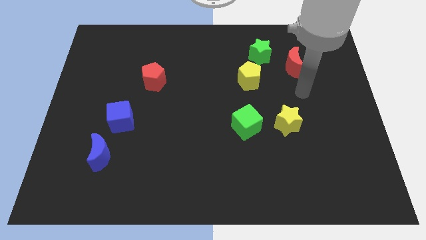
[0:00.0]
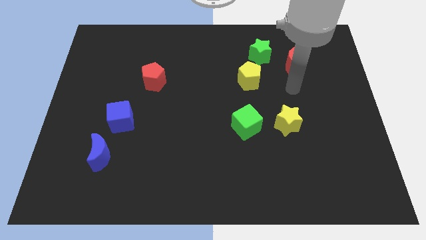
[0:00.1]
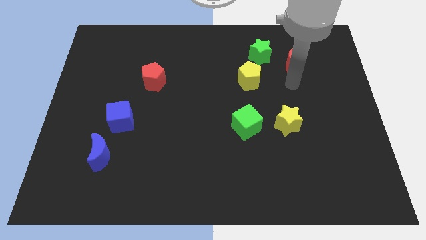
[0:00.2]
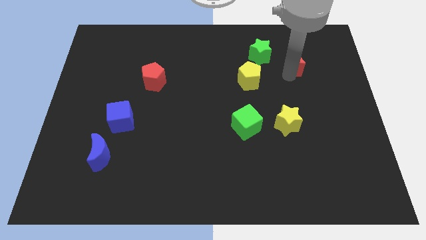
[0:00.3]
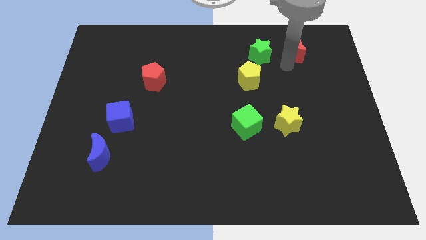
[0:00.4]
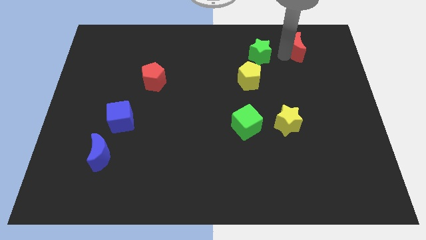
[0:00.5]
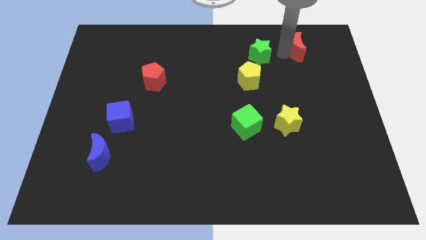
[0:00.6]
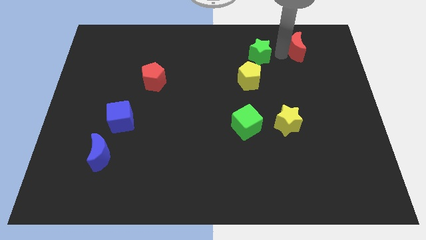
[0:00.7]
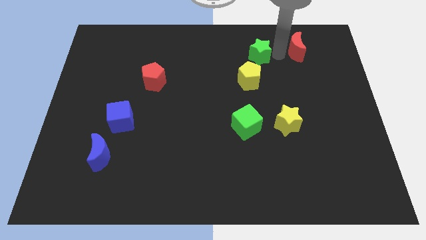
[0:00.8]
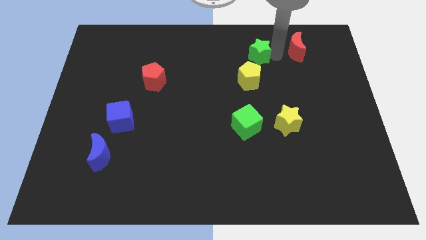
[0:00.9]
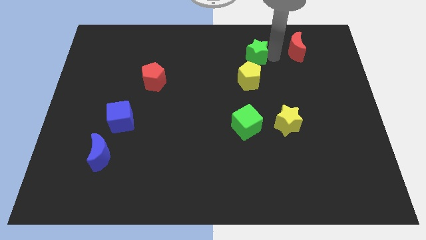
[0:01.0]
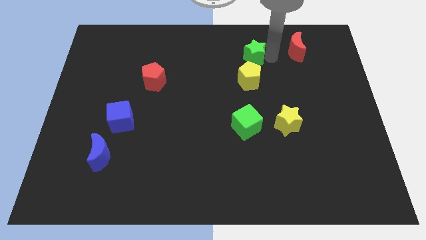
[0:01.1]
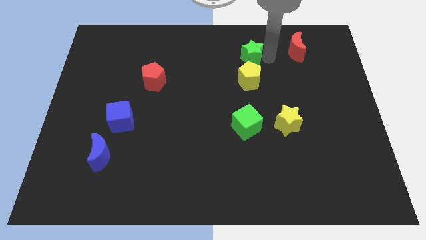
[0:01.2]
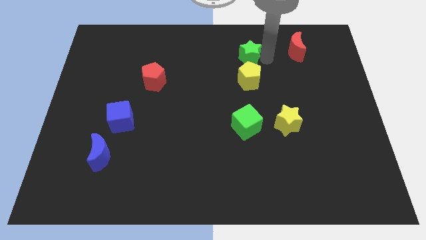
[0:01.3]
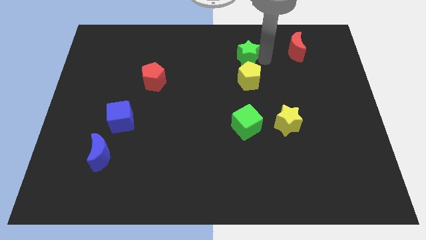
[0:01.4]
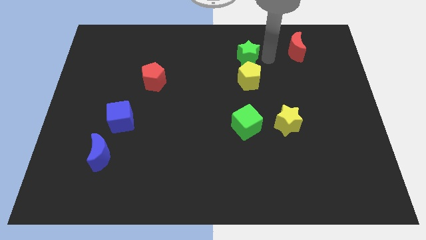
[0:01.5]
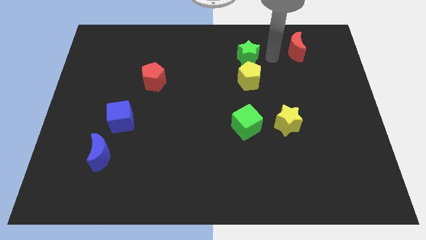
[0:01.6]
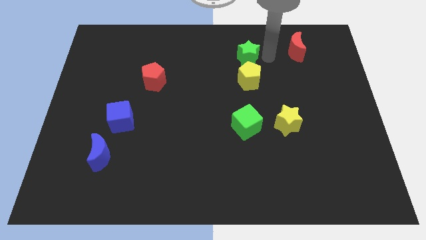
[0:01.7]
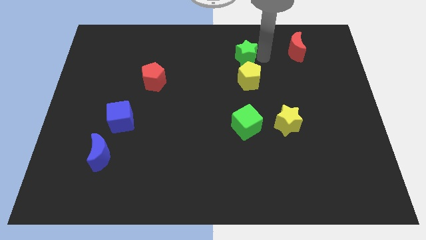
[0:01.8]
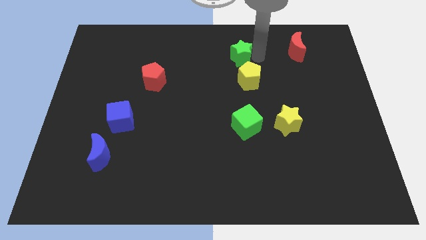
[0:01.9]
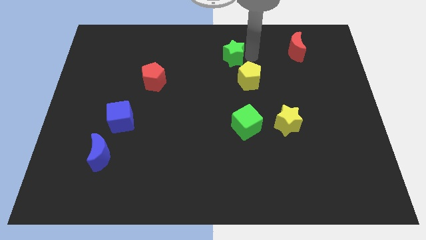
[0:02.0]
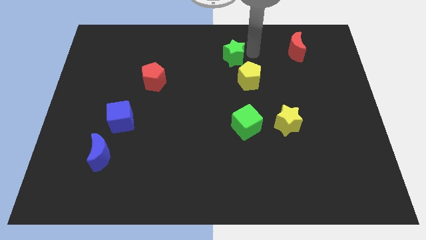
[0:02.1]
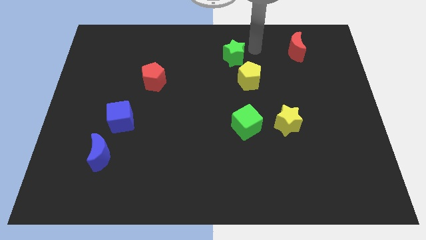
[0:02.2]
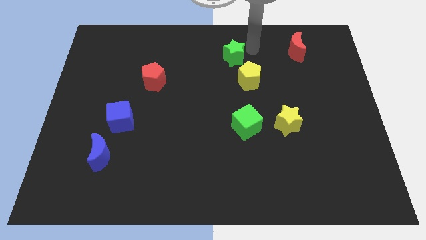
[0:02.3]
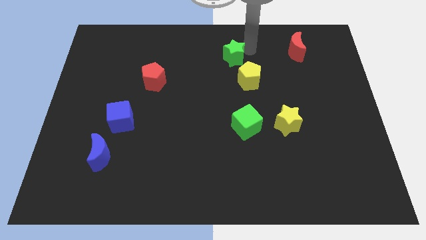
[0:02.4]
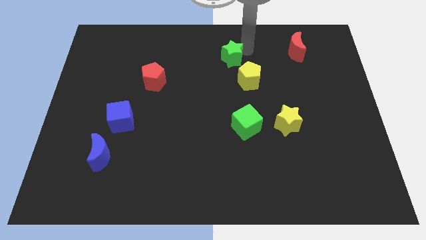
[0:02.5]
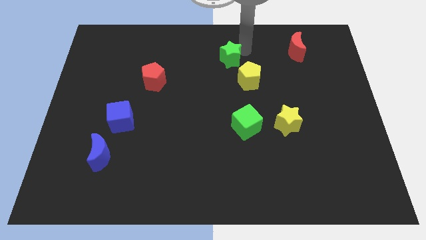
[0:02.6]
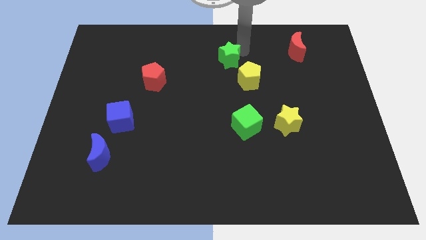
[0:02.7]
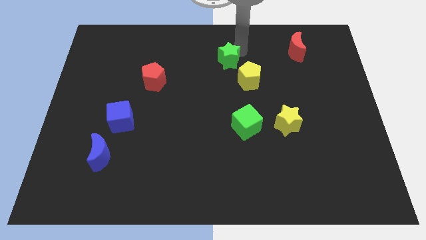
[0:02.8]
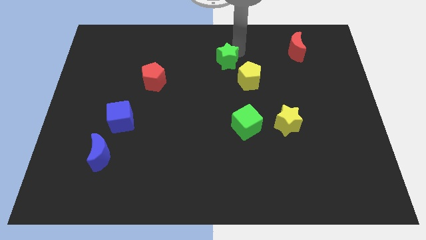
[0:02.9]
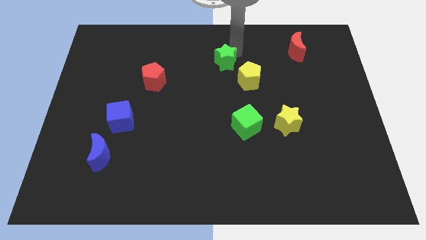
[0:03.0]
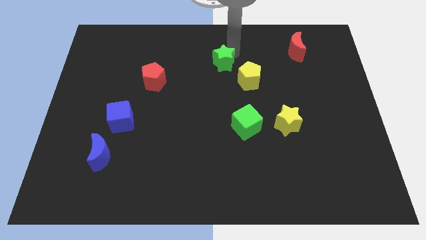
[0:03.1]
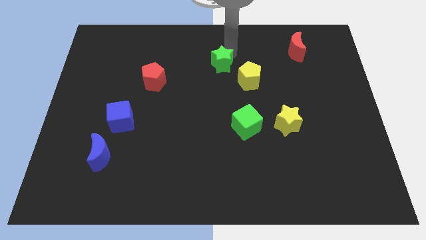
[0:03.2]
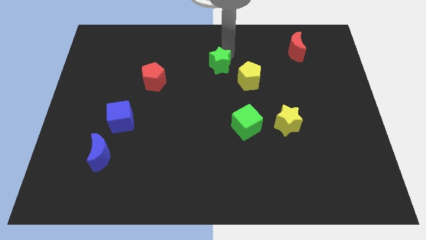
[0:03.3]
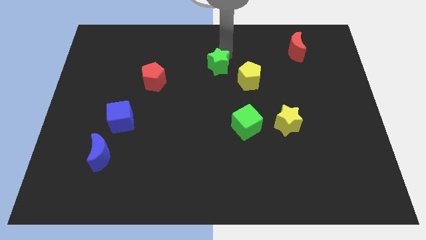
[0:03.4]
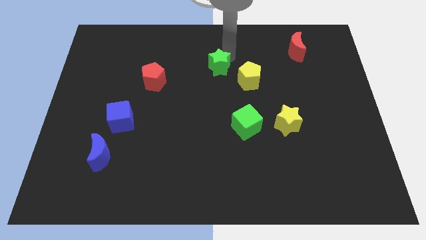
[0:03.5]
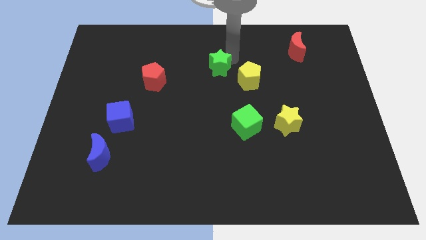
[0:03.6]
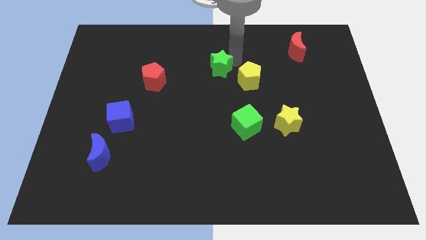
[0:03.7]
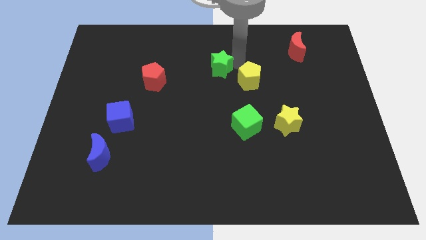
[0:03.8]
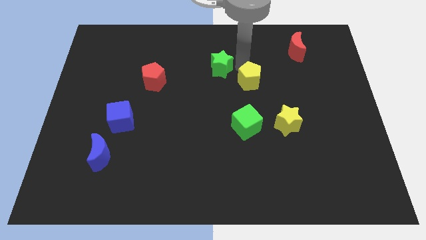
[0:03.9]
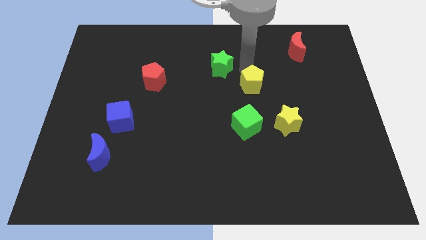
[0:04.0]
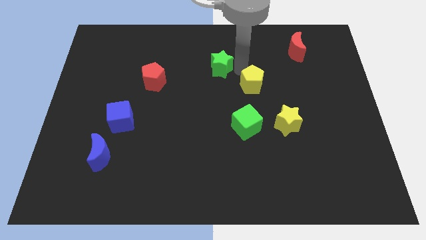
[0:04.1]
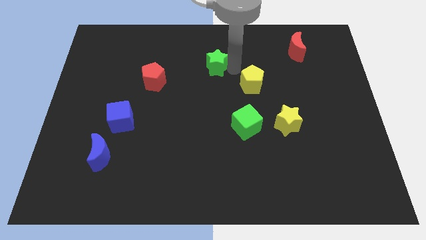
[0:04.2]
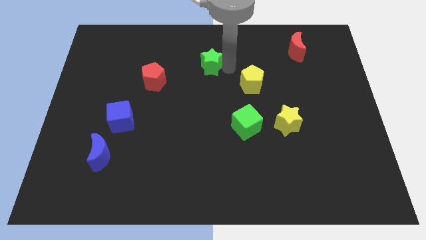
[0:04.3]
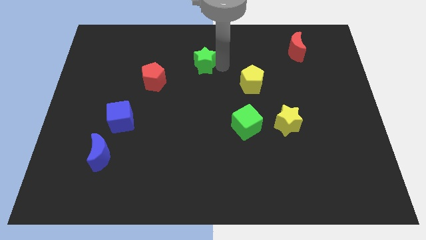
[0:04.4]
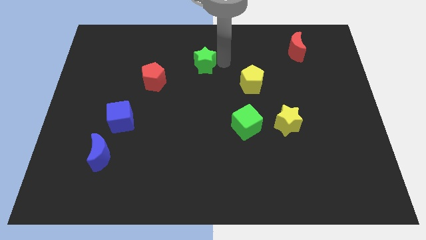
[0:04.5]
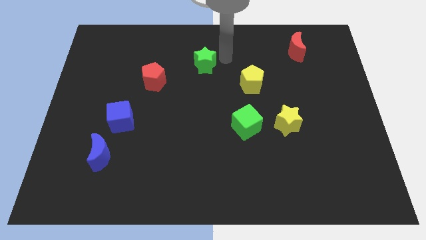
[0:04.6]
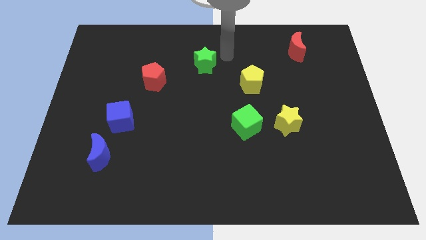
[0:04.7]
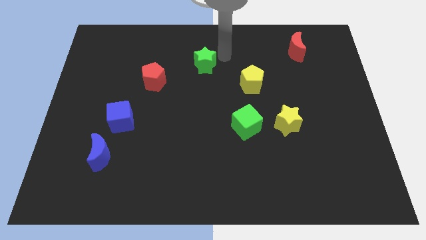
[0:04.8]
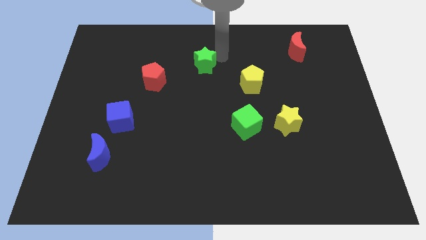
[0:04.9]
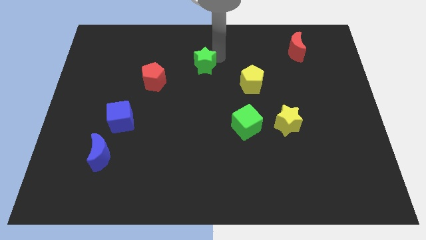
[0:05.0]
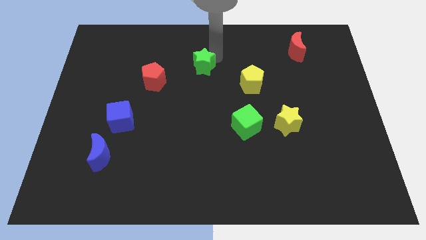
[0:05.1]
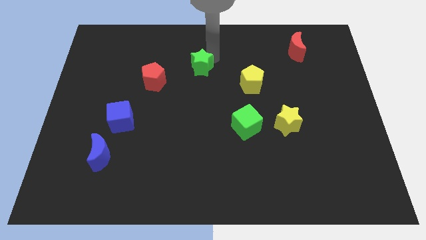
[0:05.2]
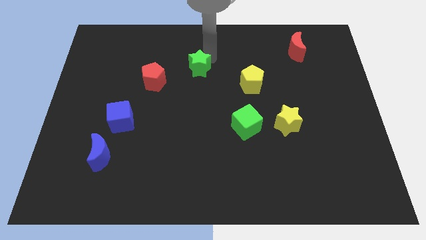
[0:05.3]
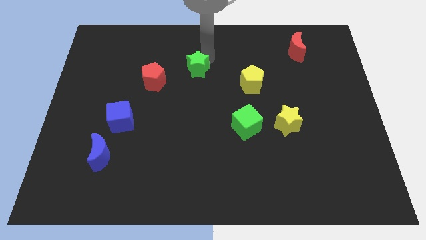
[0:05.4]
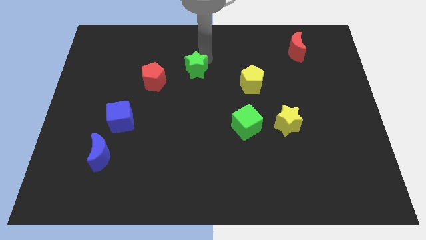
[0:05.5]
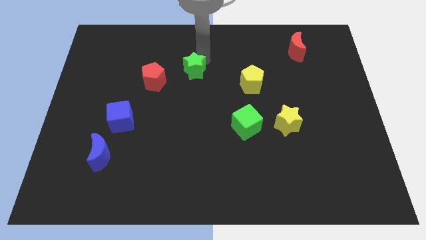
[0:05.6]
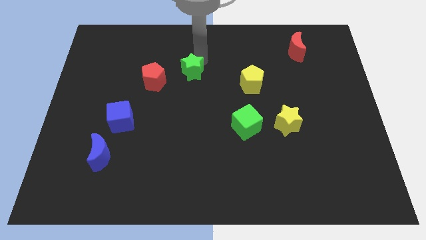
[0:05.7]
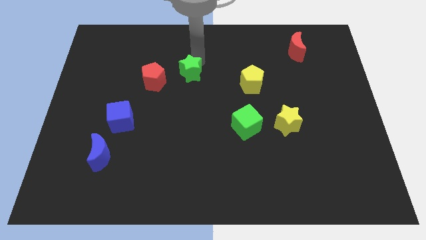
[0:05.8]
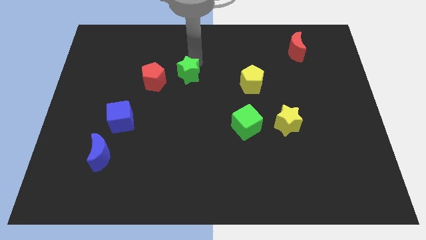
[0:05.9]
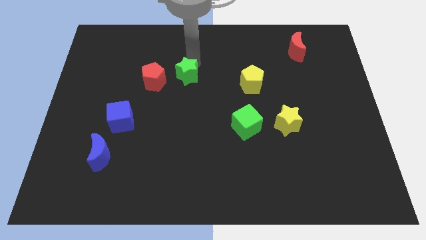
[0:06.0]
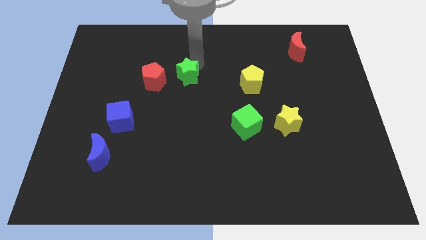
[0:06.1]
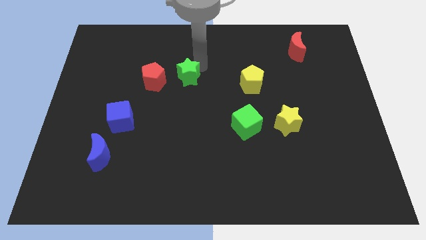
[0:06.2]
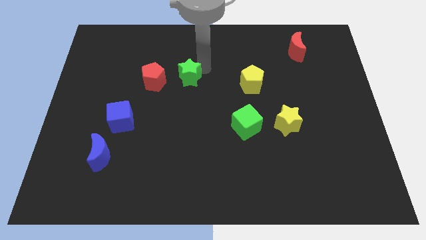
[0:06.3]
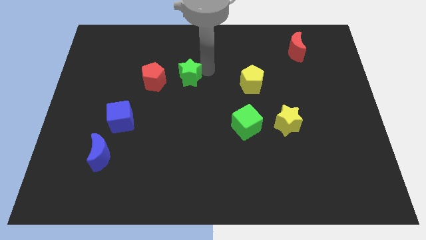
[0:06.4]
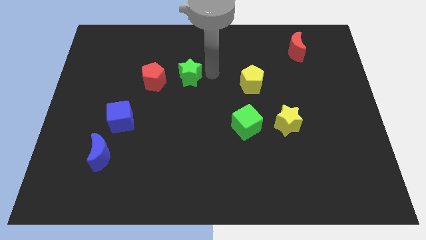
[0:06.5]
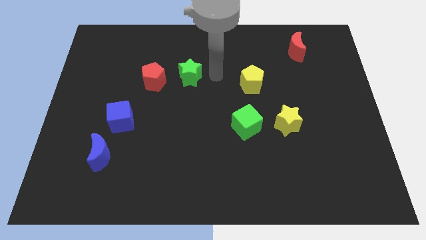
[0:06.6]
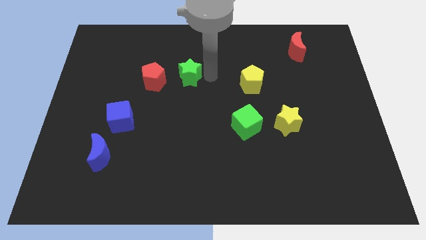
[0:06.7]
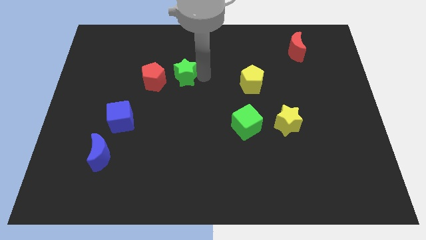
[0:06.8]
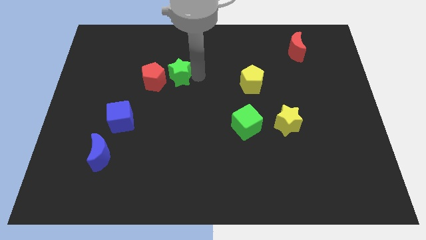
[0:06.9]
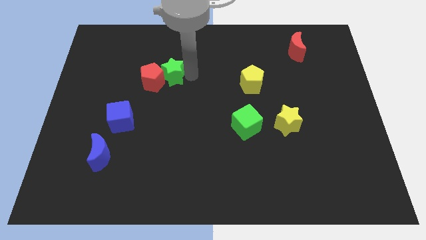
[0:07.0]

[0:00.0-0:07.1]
slide the green star to the red pentagon

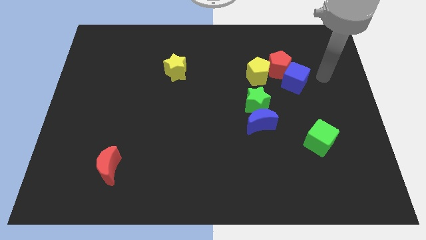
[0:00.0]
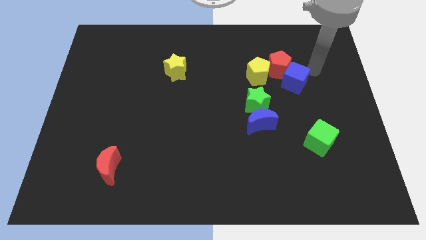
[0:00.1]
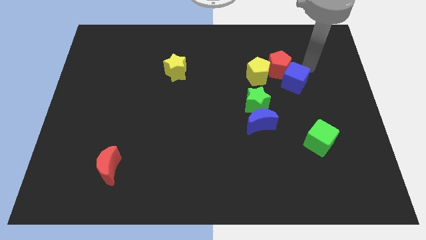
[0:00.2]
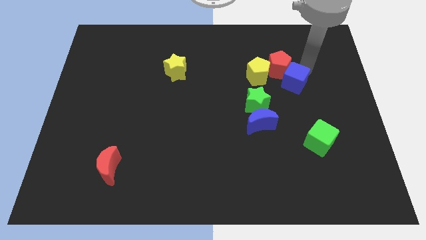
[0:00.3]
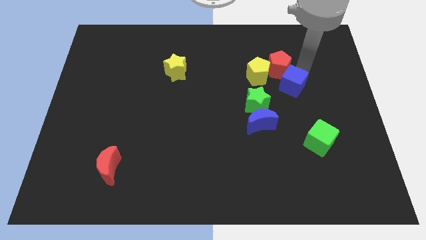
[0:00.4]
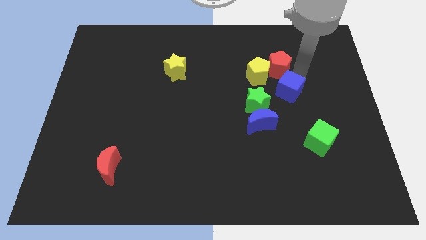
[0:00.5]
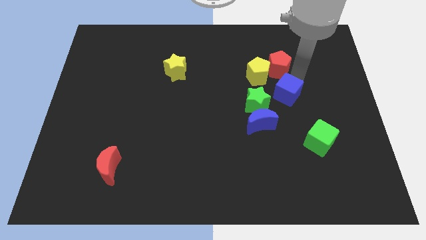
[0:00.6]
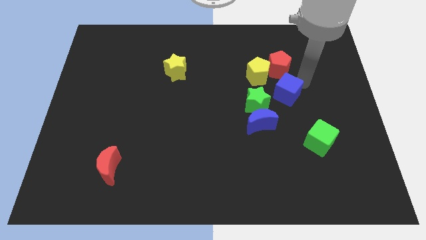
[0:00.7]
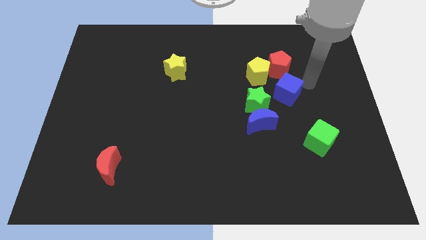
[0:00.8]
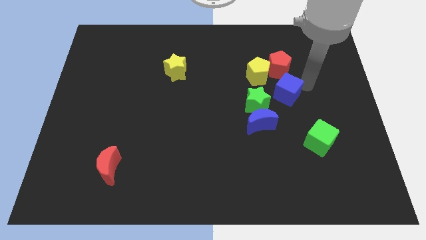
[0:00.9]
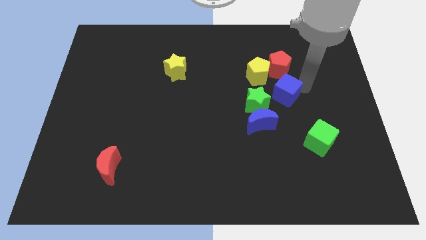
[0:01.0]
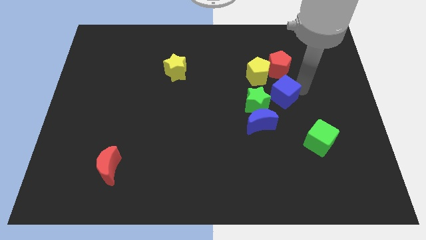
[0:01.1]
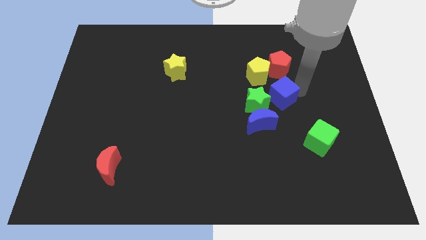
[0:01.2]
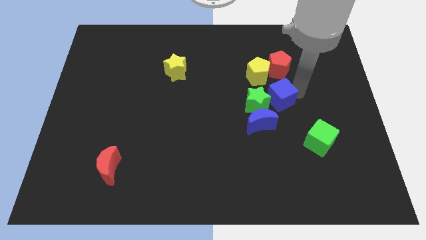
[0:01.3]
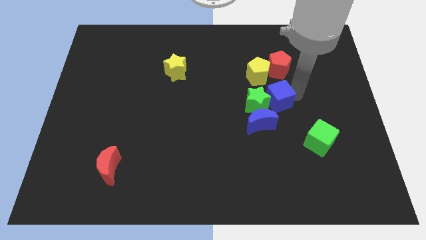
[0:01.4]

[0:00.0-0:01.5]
push the blue cube close to the green star
